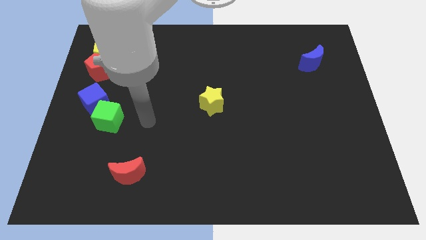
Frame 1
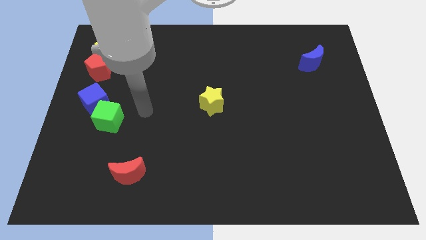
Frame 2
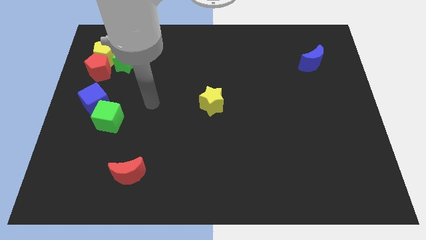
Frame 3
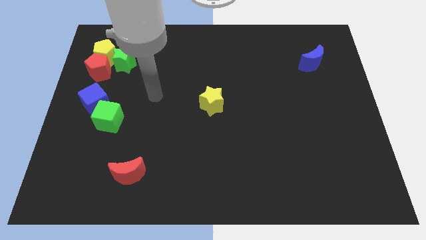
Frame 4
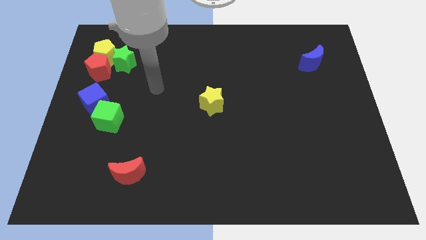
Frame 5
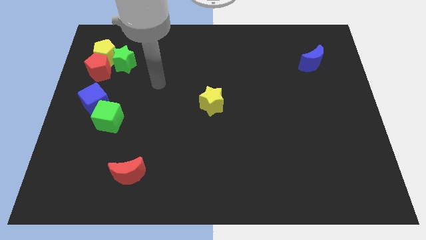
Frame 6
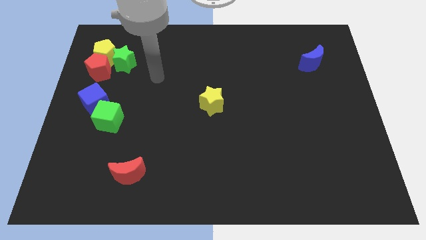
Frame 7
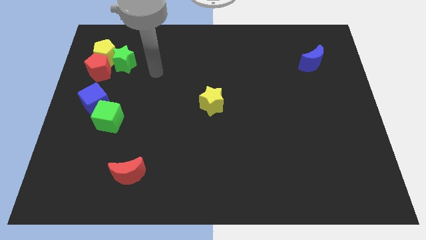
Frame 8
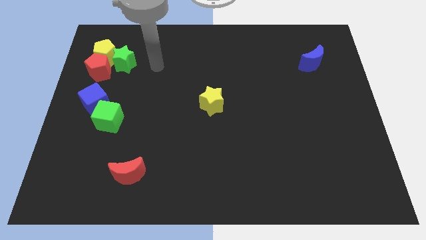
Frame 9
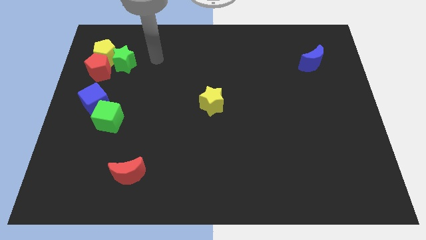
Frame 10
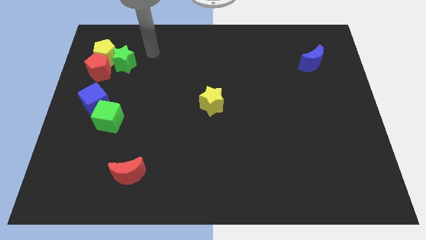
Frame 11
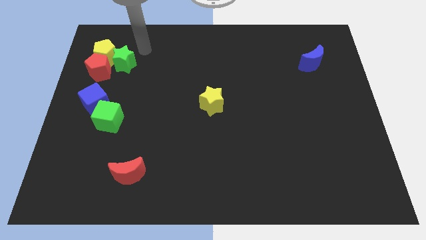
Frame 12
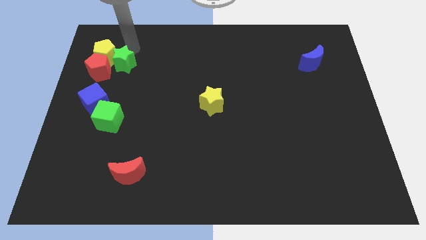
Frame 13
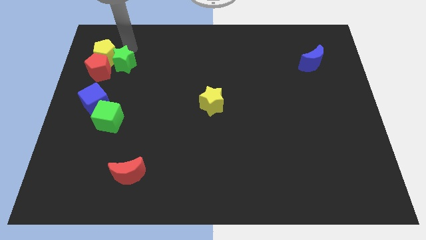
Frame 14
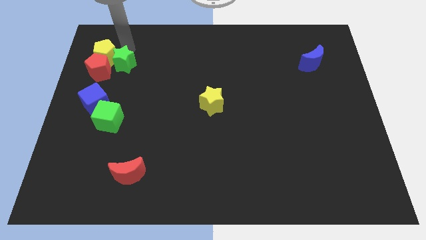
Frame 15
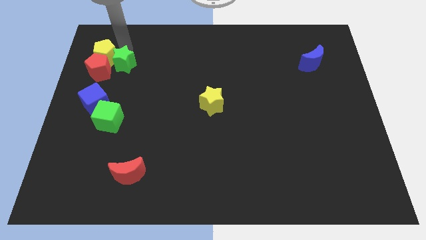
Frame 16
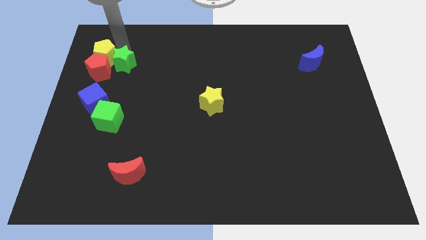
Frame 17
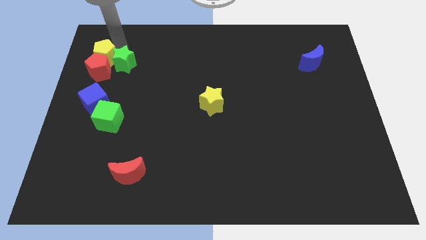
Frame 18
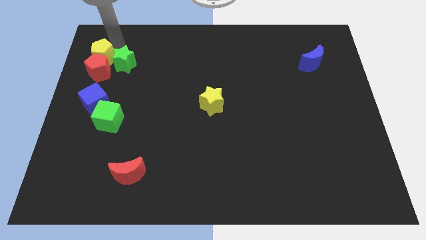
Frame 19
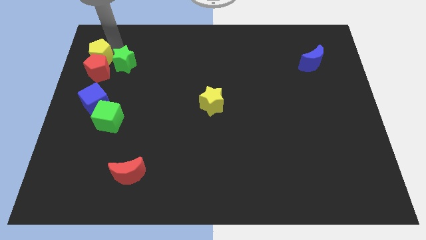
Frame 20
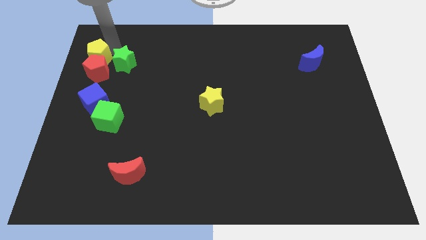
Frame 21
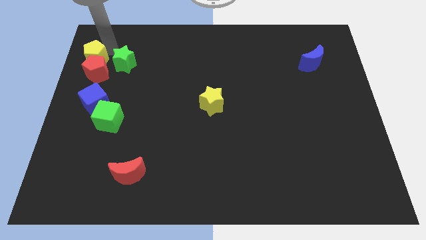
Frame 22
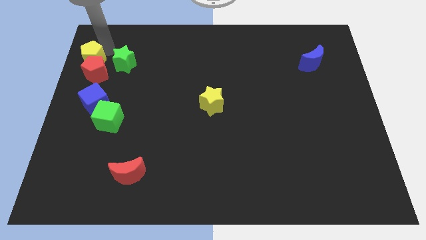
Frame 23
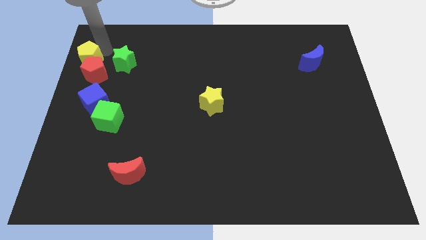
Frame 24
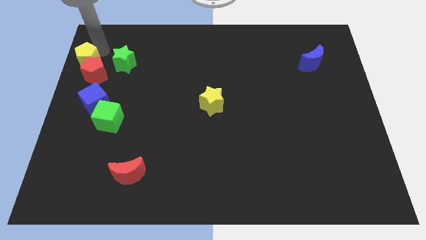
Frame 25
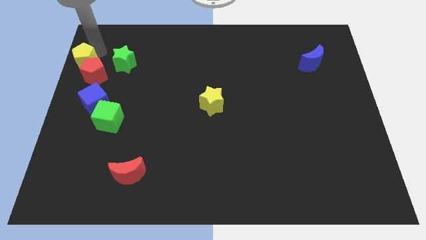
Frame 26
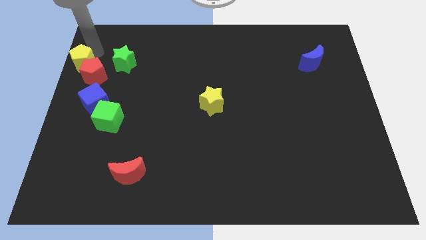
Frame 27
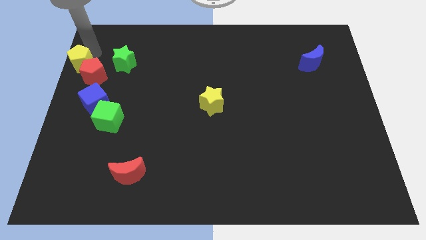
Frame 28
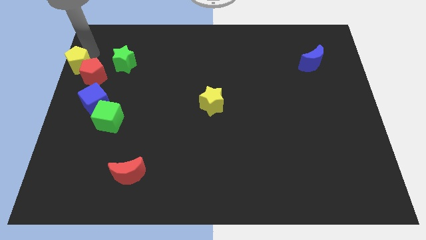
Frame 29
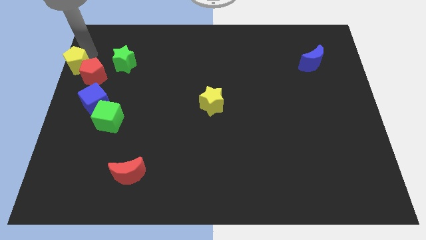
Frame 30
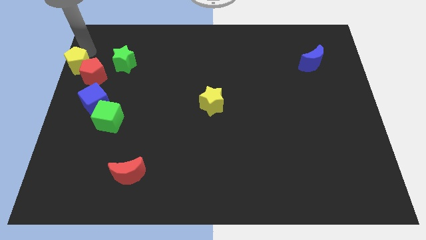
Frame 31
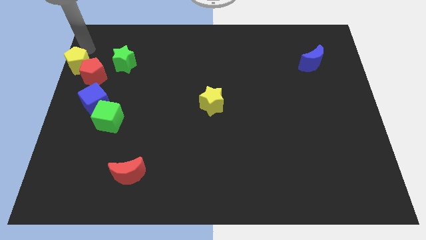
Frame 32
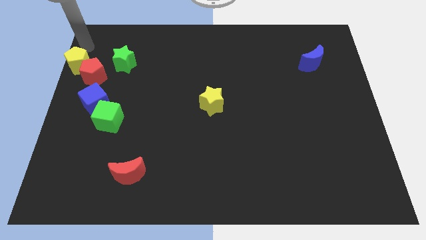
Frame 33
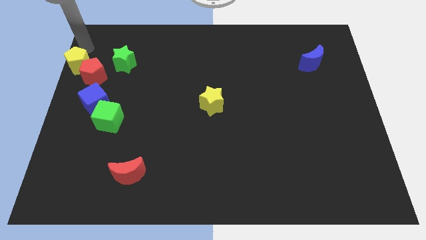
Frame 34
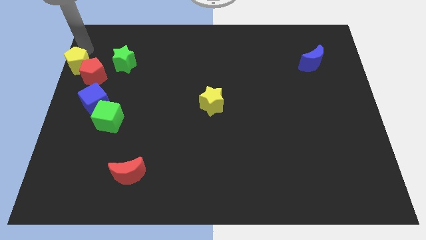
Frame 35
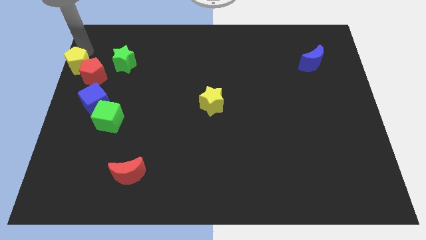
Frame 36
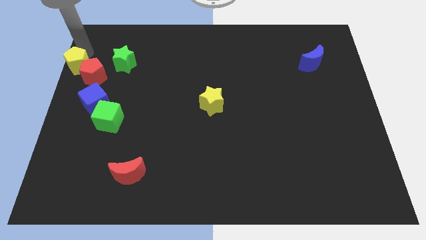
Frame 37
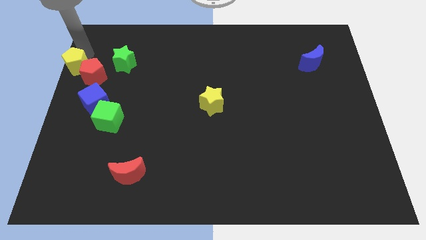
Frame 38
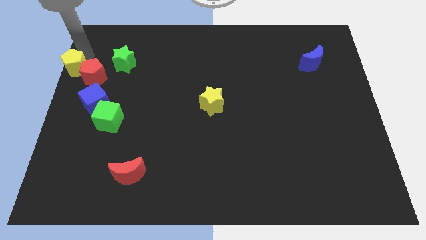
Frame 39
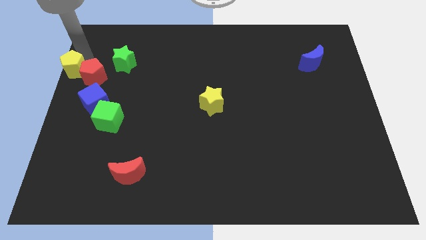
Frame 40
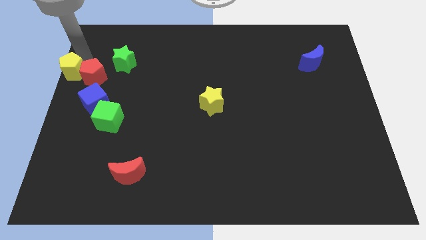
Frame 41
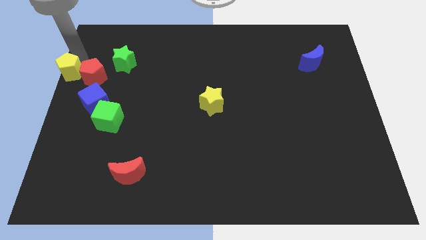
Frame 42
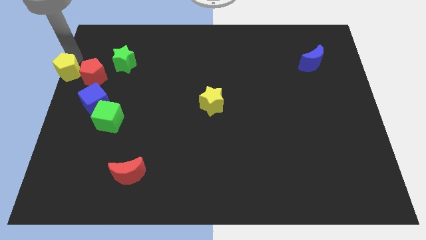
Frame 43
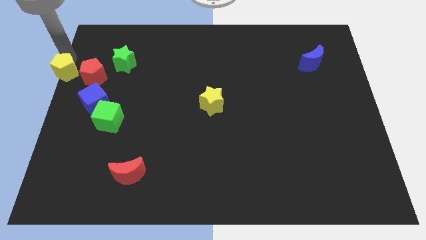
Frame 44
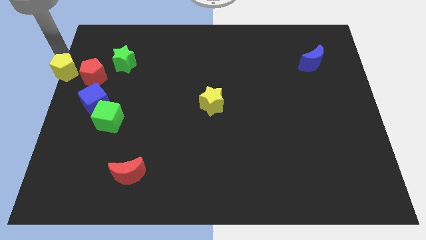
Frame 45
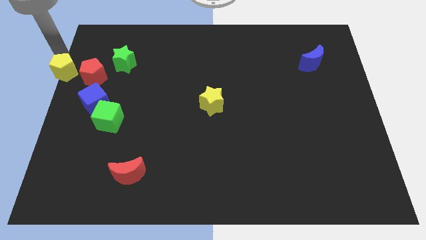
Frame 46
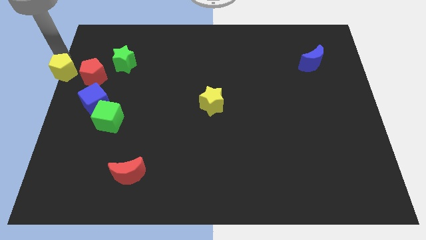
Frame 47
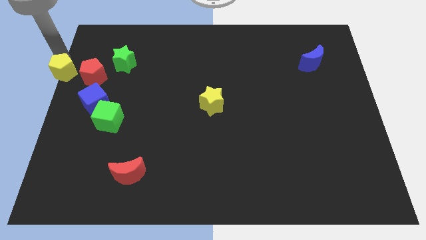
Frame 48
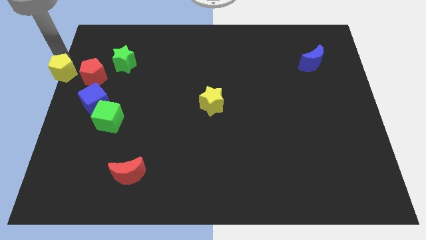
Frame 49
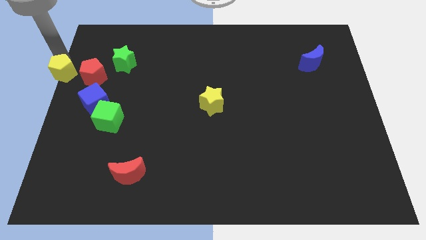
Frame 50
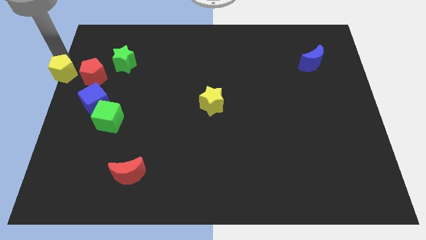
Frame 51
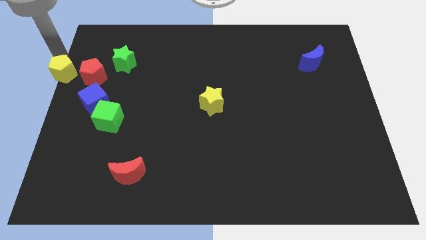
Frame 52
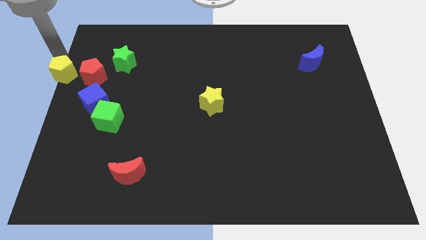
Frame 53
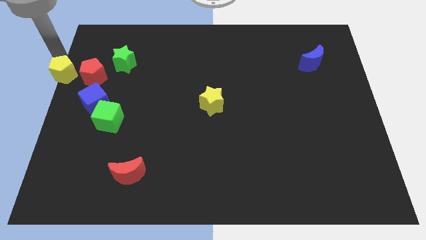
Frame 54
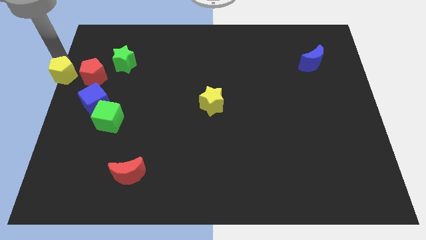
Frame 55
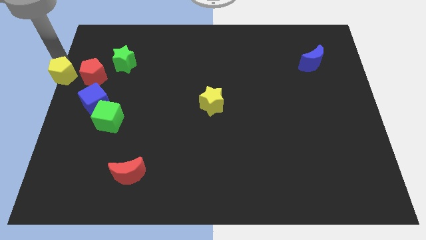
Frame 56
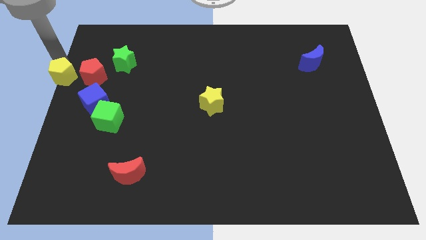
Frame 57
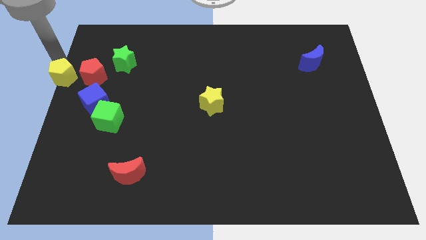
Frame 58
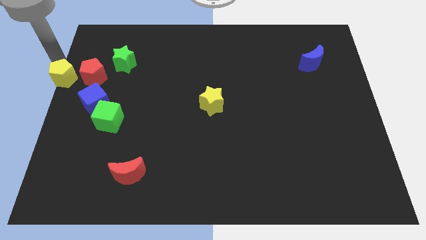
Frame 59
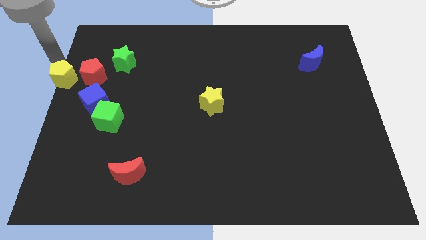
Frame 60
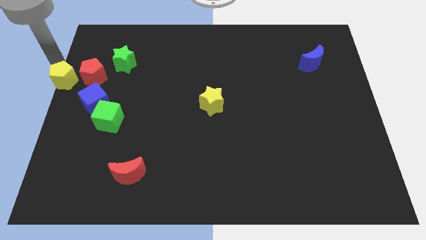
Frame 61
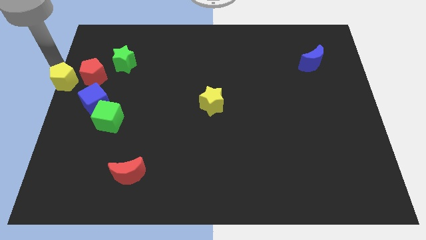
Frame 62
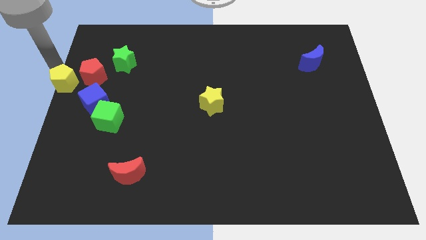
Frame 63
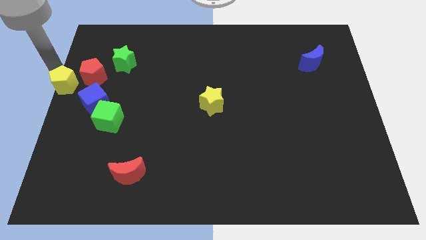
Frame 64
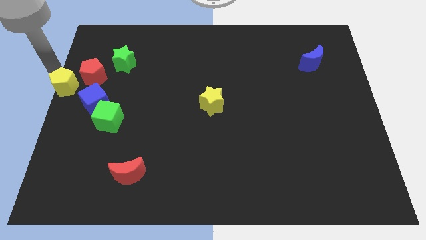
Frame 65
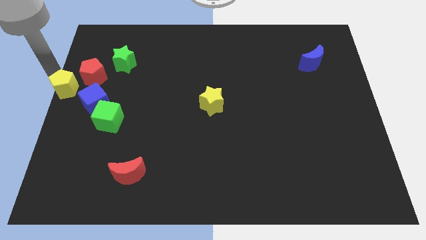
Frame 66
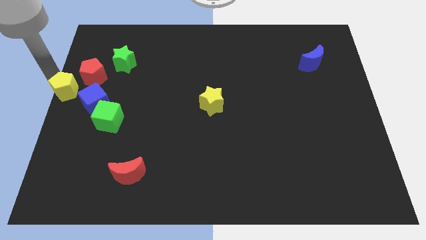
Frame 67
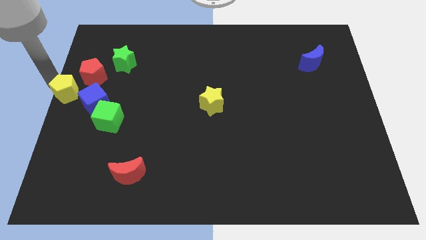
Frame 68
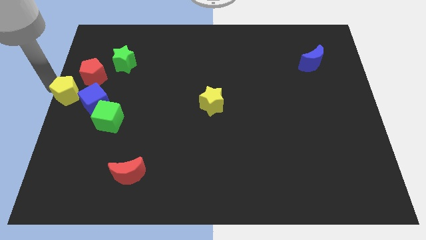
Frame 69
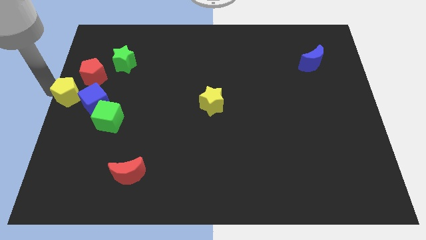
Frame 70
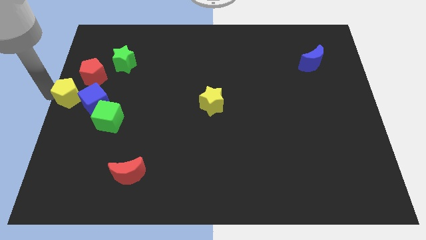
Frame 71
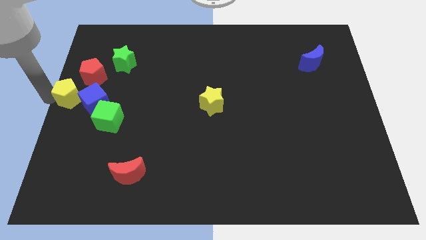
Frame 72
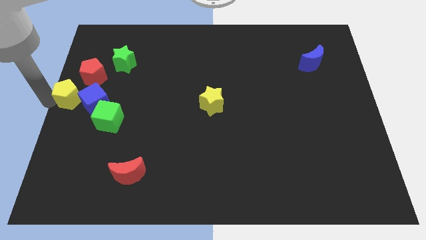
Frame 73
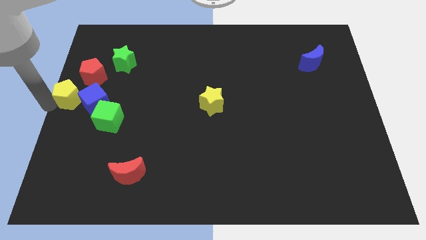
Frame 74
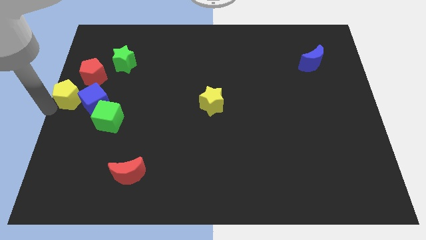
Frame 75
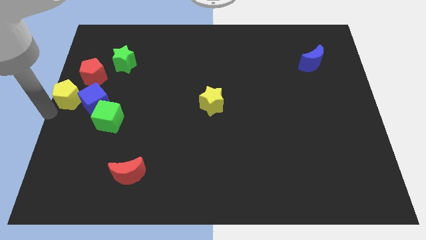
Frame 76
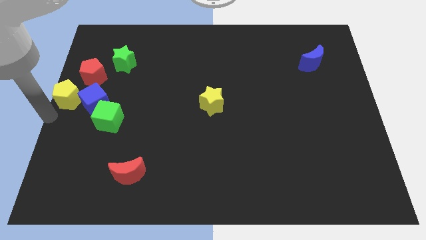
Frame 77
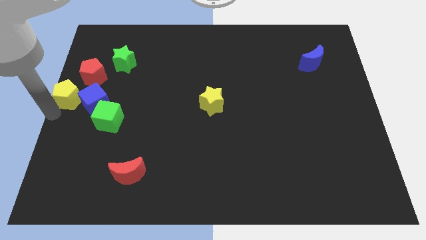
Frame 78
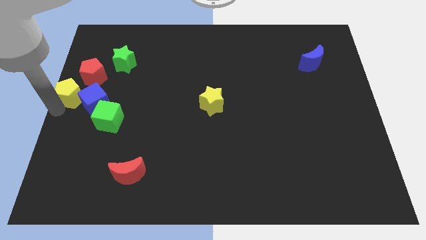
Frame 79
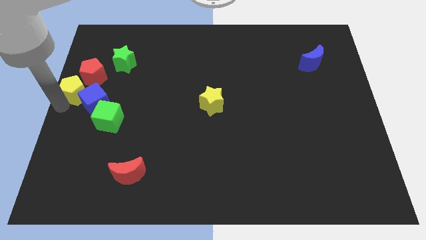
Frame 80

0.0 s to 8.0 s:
move the yellow pentagon towards the blue cube
